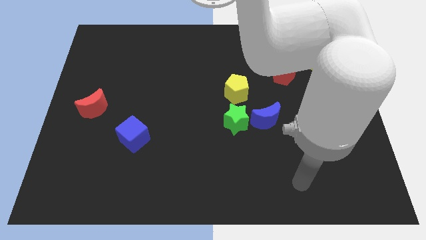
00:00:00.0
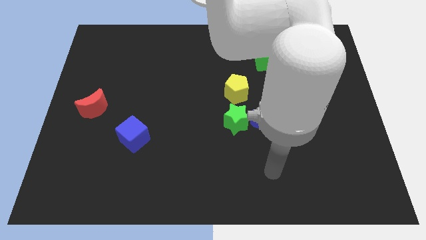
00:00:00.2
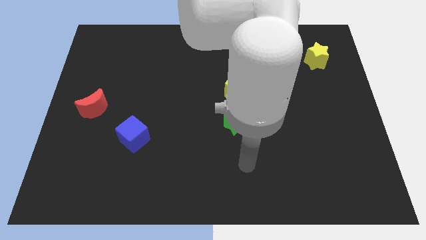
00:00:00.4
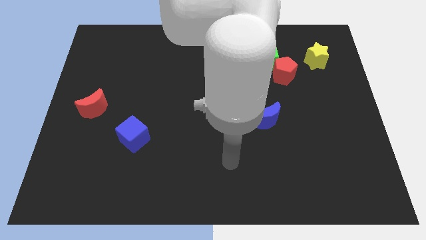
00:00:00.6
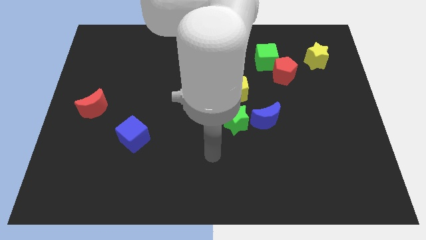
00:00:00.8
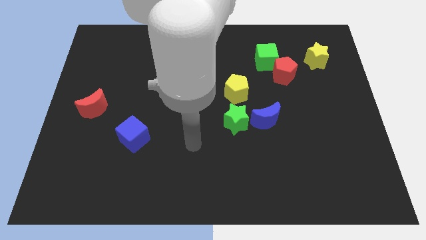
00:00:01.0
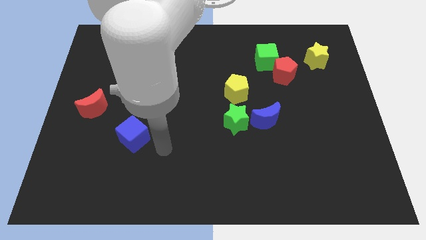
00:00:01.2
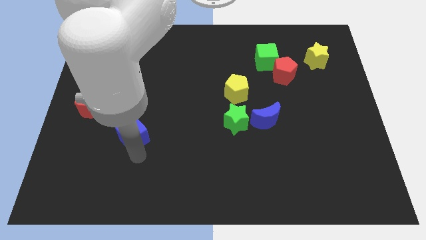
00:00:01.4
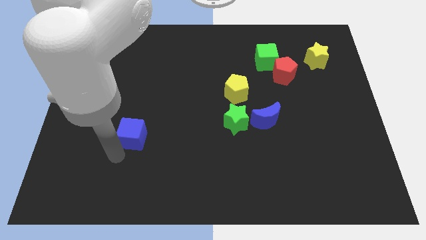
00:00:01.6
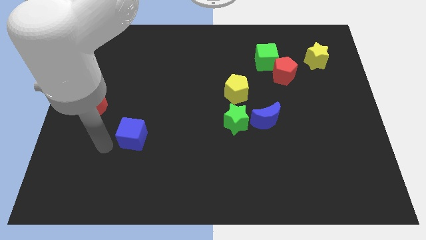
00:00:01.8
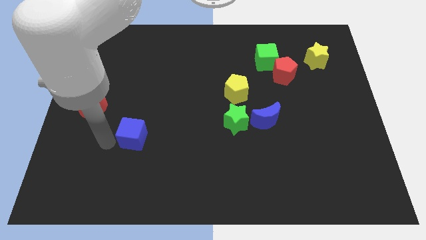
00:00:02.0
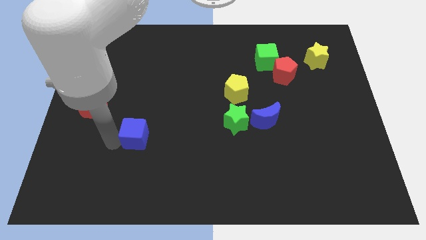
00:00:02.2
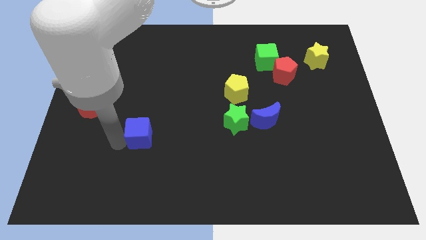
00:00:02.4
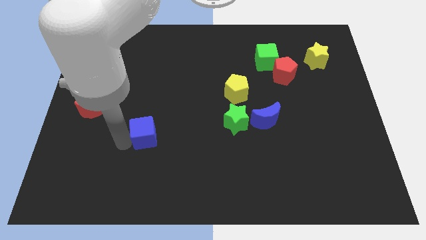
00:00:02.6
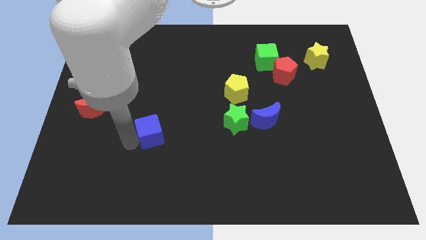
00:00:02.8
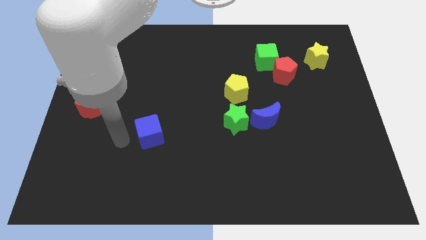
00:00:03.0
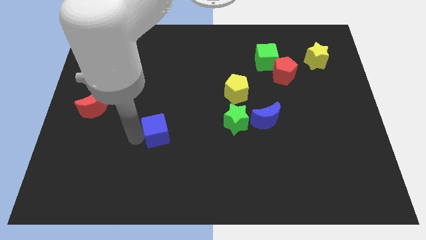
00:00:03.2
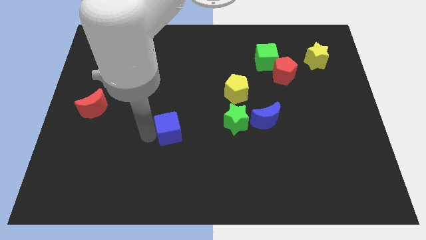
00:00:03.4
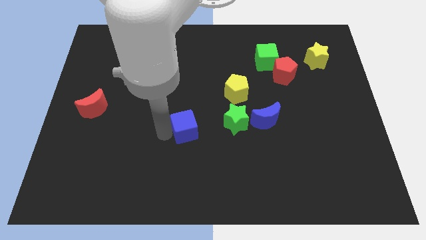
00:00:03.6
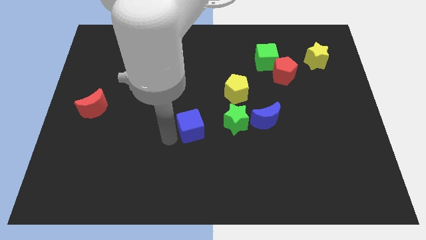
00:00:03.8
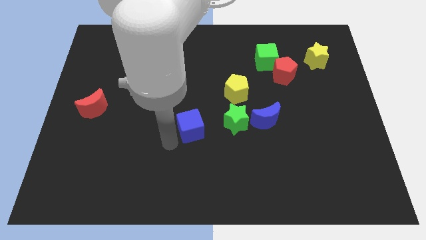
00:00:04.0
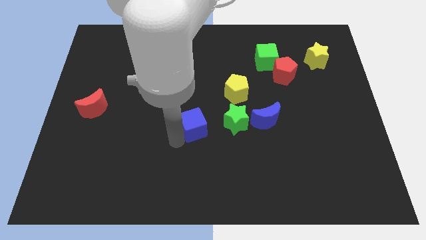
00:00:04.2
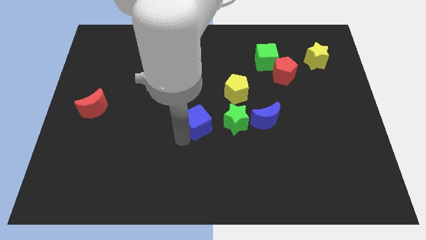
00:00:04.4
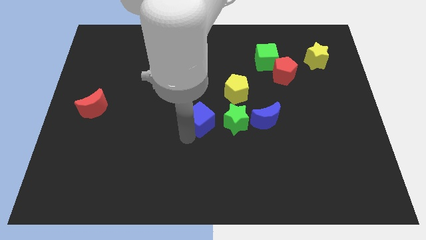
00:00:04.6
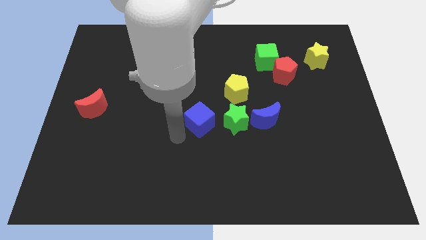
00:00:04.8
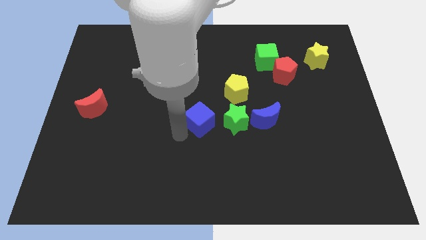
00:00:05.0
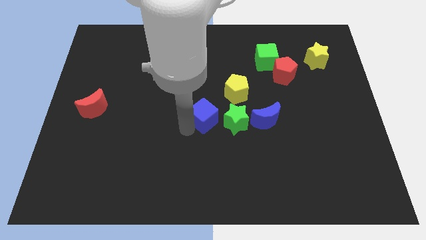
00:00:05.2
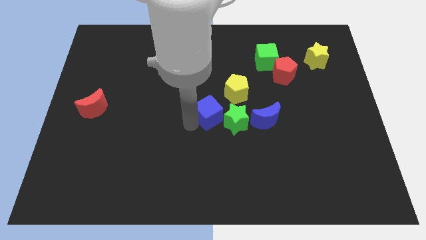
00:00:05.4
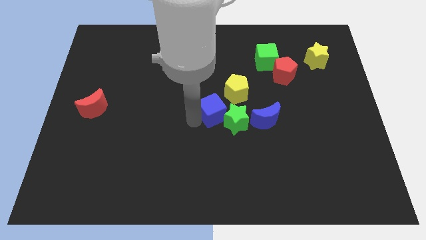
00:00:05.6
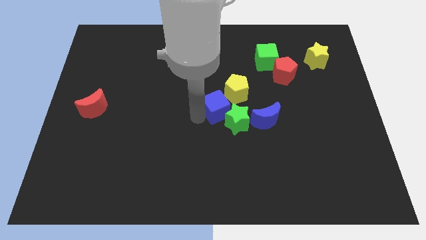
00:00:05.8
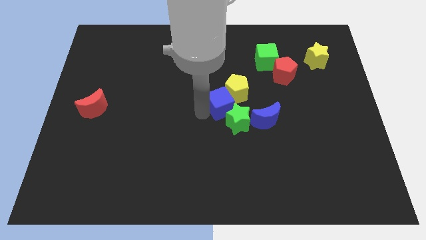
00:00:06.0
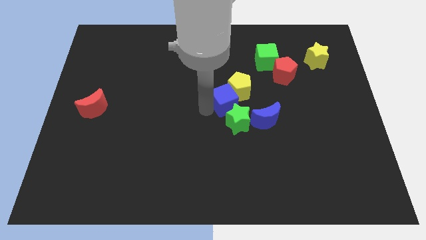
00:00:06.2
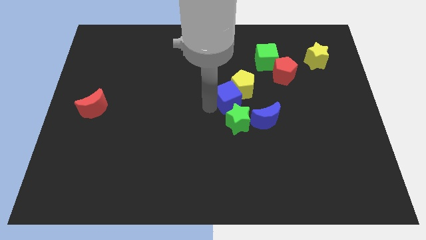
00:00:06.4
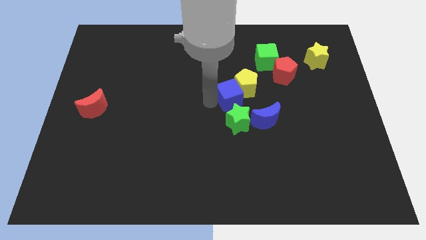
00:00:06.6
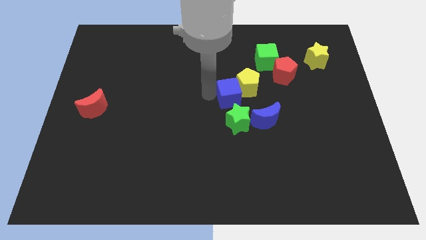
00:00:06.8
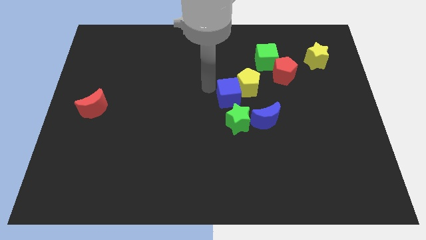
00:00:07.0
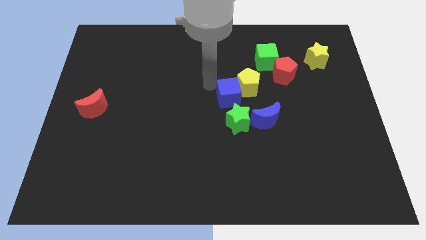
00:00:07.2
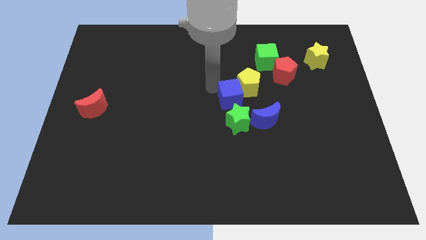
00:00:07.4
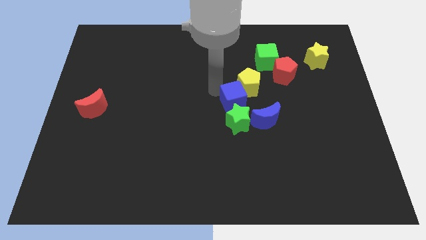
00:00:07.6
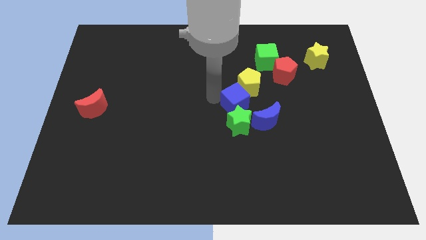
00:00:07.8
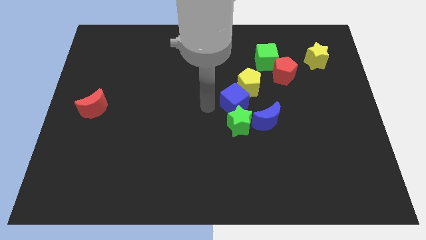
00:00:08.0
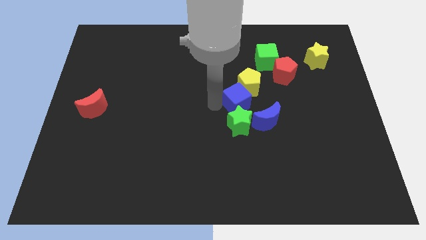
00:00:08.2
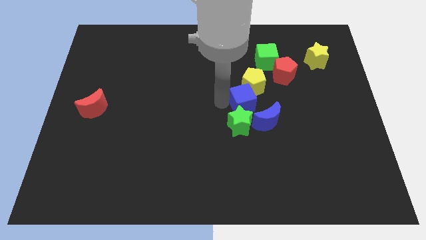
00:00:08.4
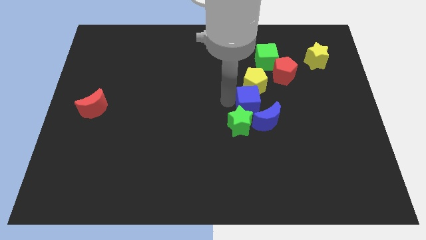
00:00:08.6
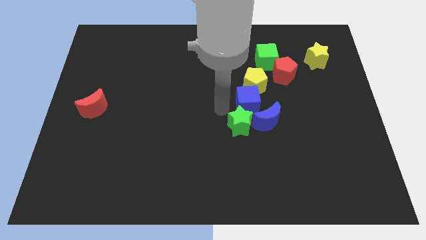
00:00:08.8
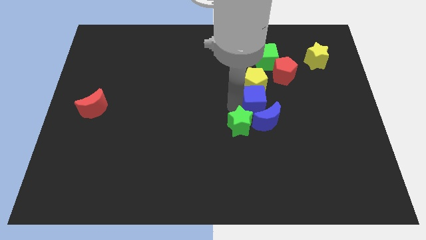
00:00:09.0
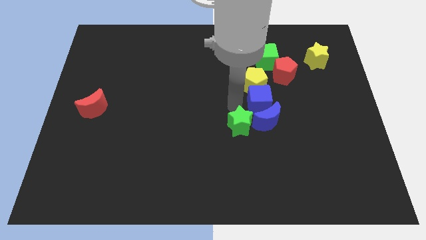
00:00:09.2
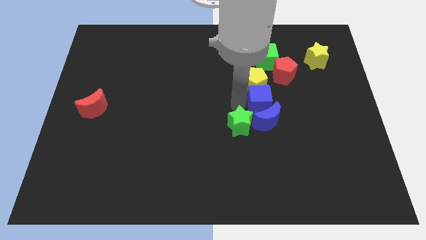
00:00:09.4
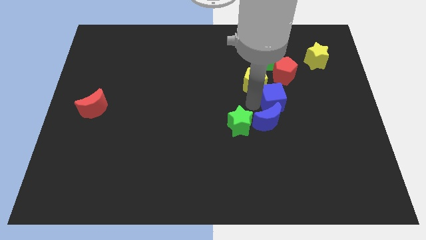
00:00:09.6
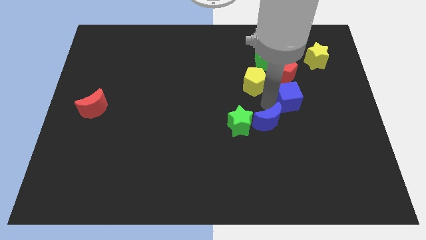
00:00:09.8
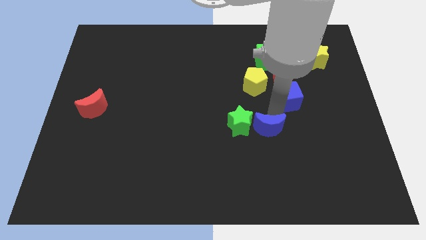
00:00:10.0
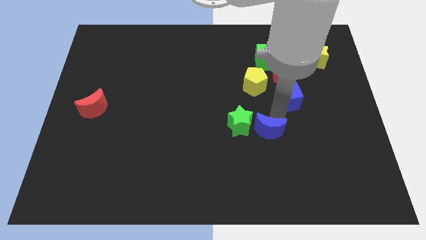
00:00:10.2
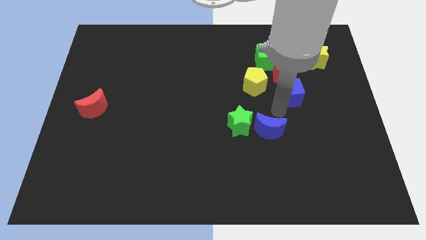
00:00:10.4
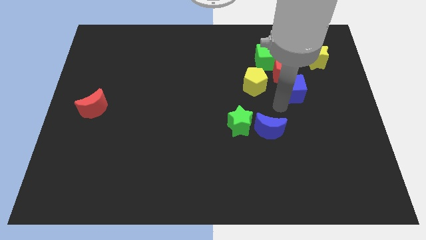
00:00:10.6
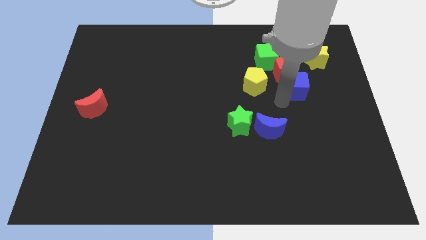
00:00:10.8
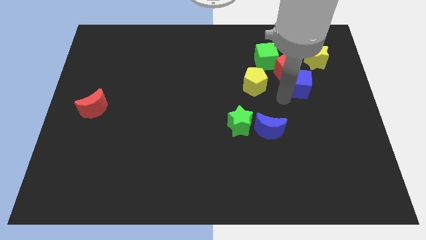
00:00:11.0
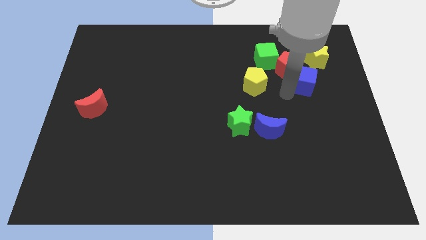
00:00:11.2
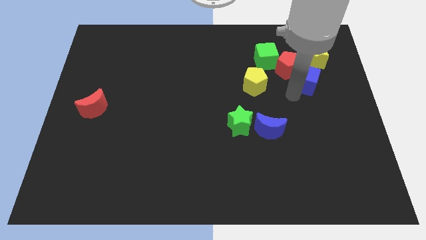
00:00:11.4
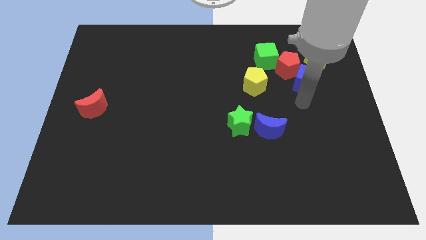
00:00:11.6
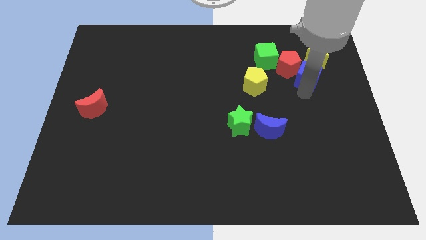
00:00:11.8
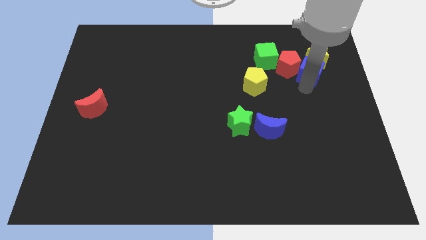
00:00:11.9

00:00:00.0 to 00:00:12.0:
move the blue cube towards the yellow star

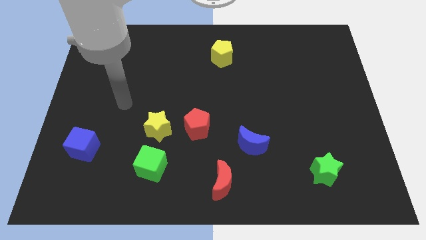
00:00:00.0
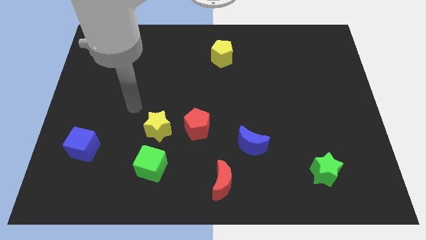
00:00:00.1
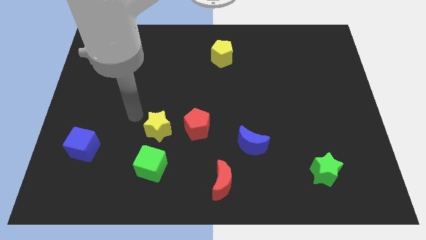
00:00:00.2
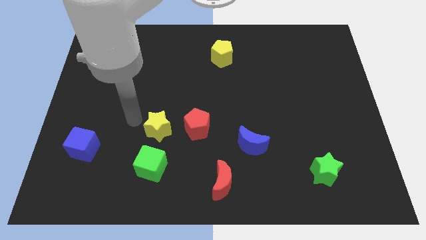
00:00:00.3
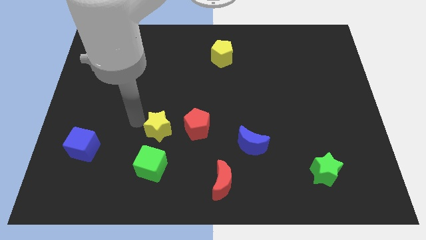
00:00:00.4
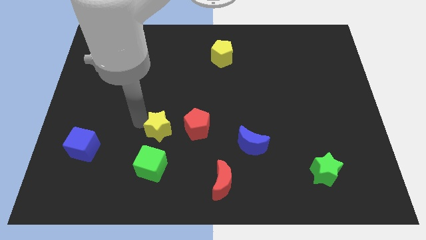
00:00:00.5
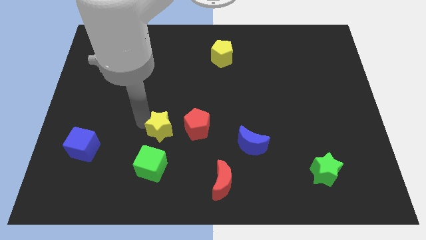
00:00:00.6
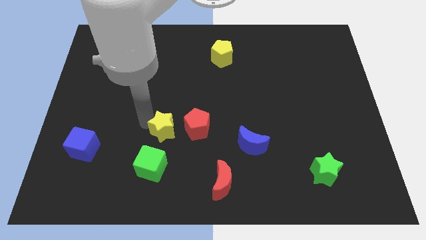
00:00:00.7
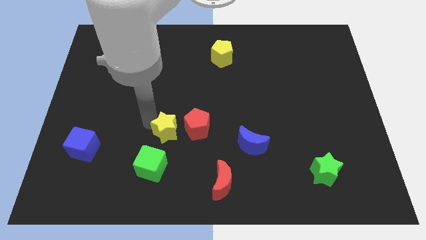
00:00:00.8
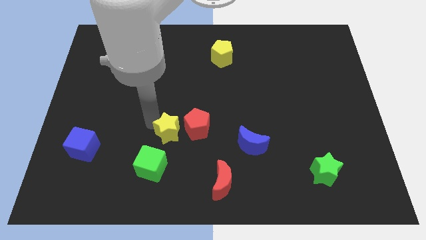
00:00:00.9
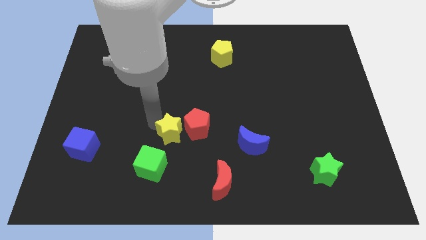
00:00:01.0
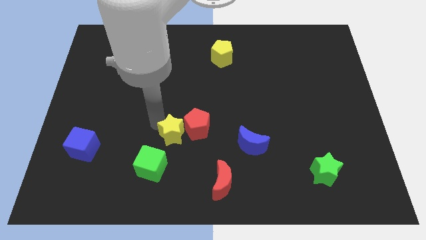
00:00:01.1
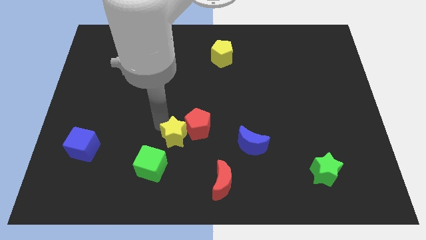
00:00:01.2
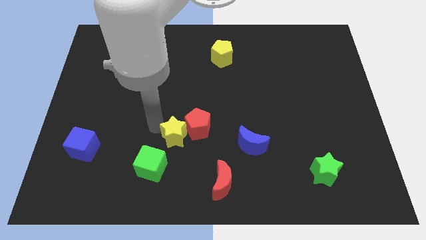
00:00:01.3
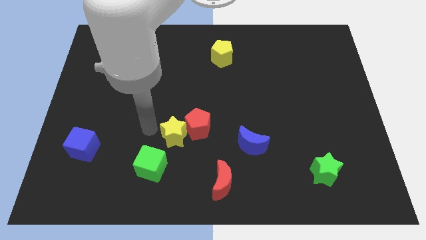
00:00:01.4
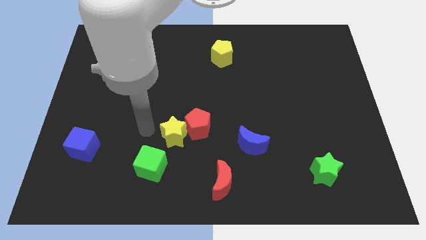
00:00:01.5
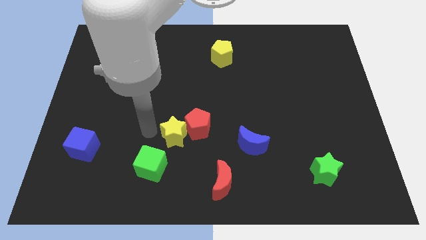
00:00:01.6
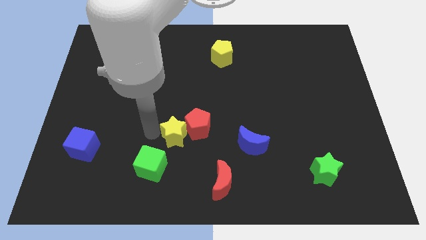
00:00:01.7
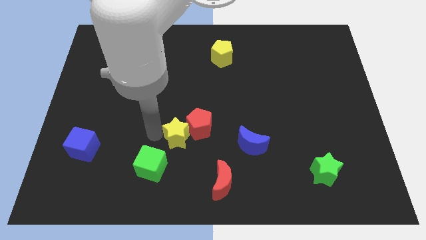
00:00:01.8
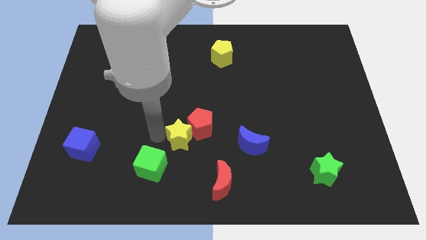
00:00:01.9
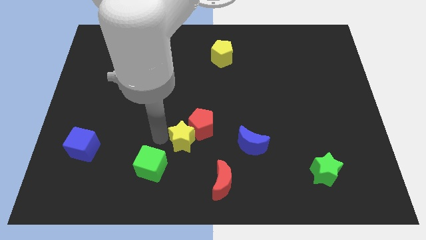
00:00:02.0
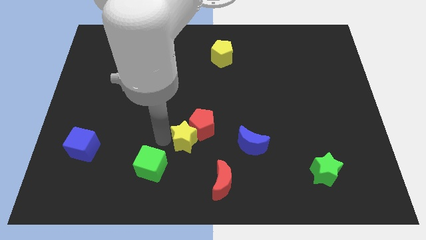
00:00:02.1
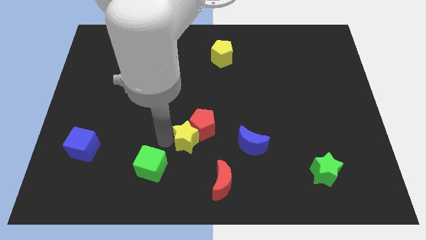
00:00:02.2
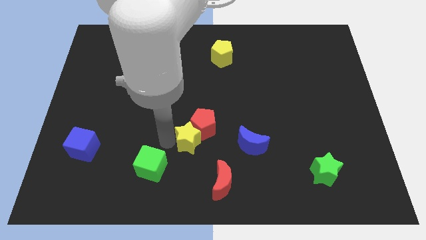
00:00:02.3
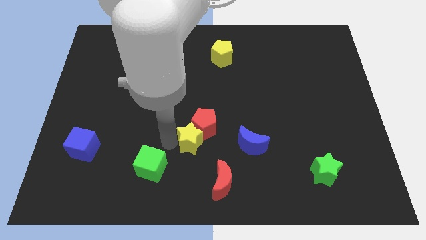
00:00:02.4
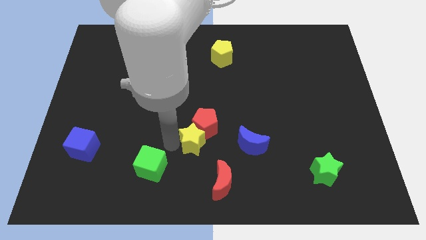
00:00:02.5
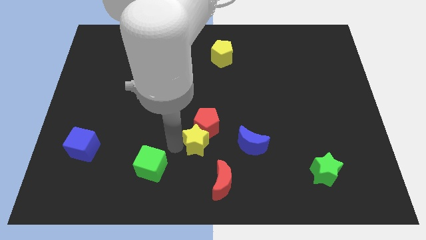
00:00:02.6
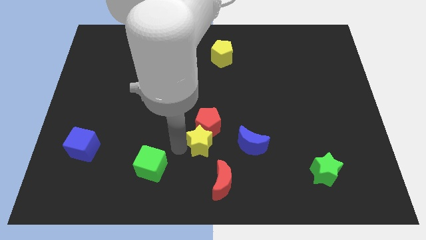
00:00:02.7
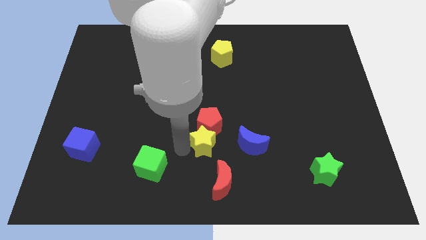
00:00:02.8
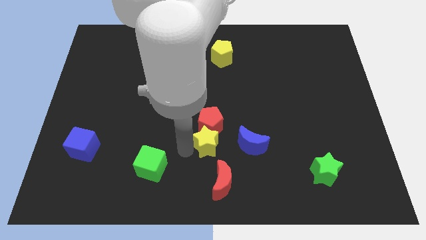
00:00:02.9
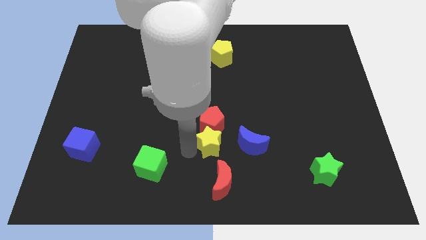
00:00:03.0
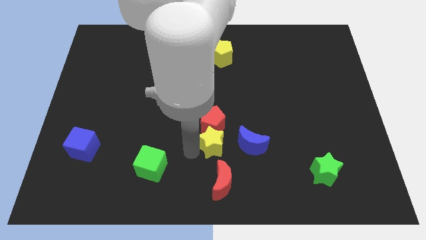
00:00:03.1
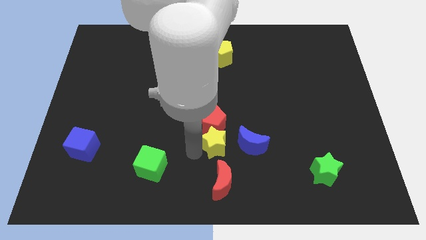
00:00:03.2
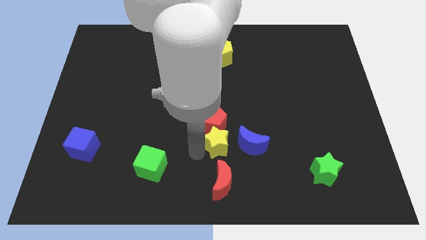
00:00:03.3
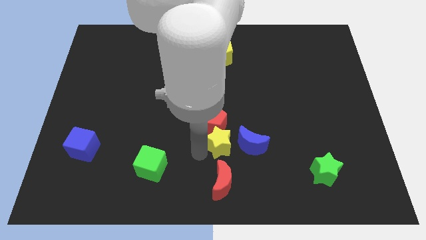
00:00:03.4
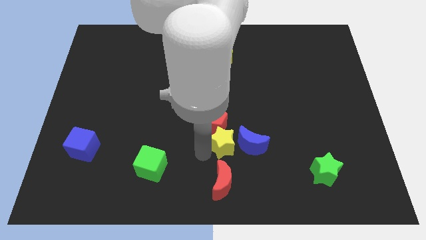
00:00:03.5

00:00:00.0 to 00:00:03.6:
slide the yellow star to the blue moon
